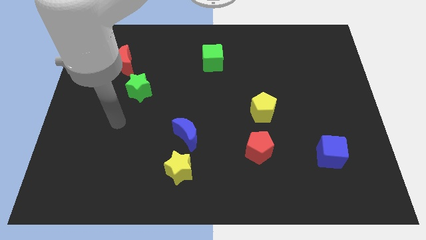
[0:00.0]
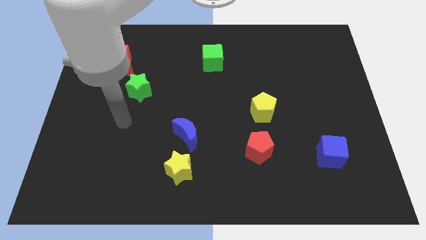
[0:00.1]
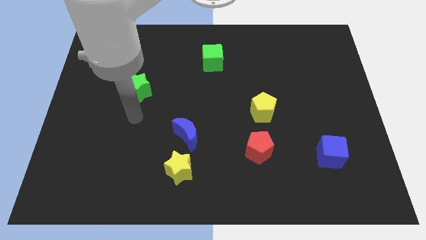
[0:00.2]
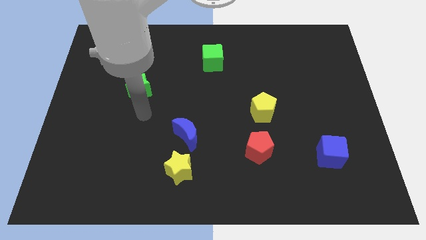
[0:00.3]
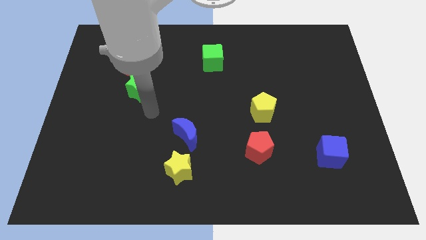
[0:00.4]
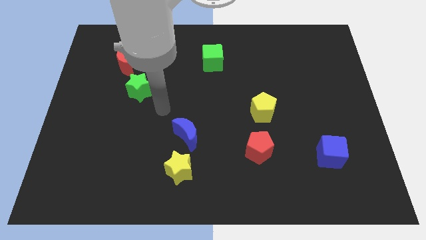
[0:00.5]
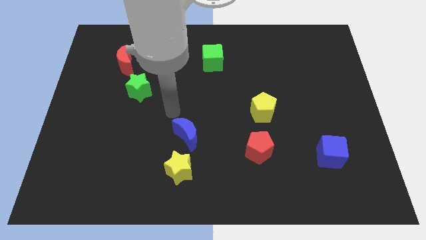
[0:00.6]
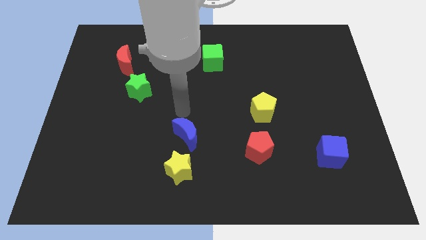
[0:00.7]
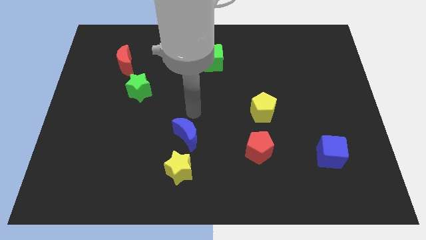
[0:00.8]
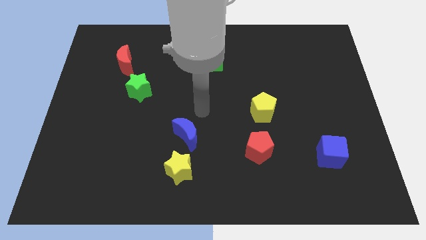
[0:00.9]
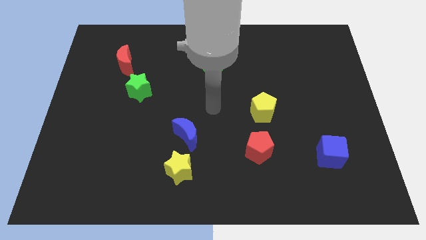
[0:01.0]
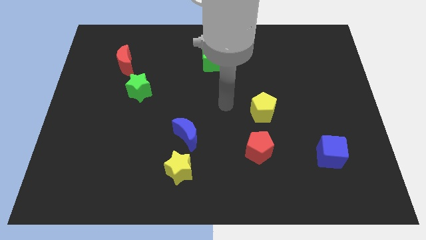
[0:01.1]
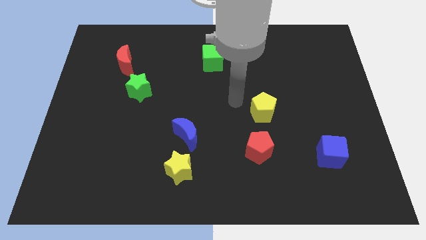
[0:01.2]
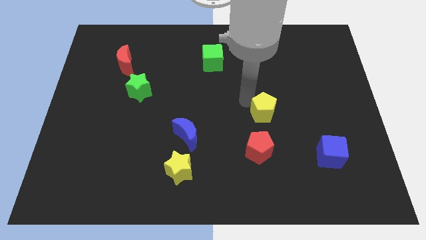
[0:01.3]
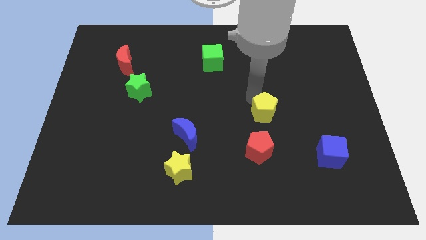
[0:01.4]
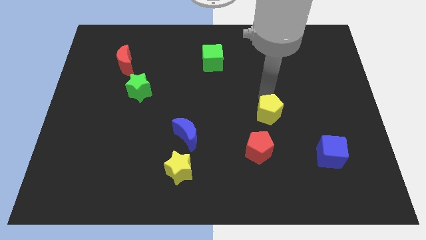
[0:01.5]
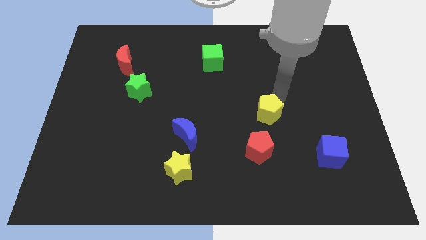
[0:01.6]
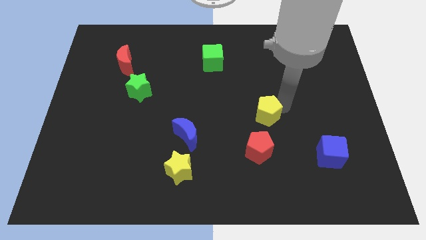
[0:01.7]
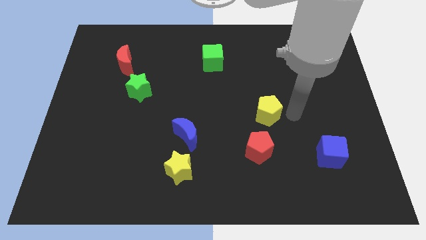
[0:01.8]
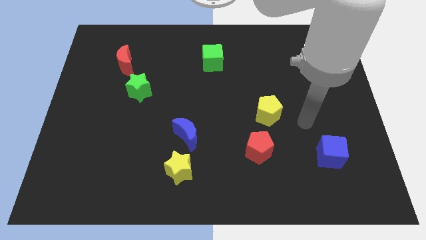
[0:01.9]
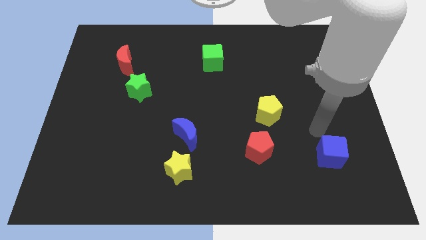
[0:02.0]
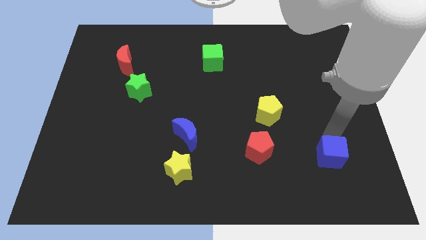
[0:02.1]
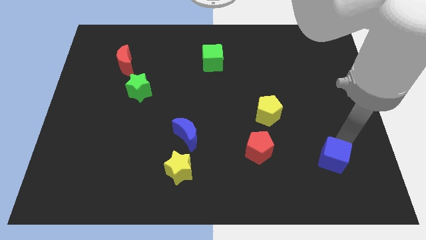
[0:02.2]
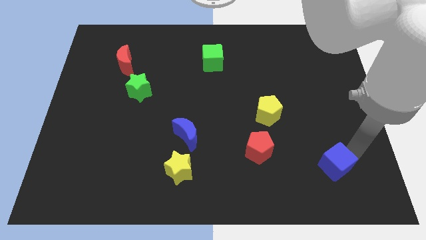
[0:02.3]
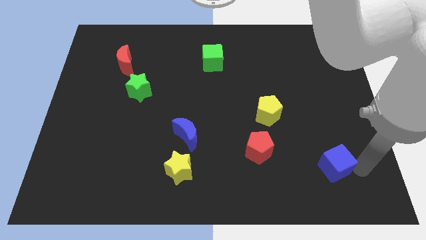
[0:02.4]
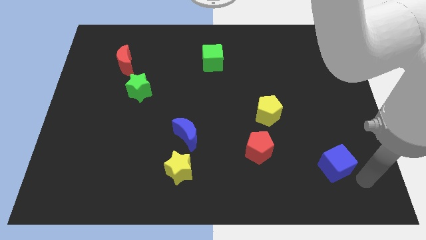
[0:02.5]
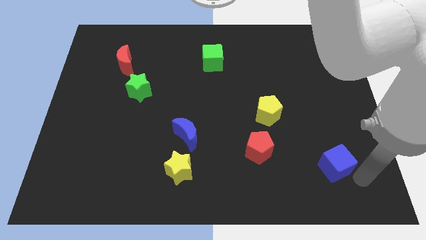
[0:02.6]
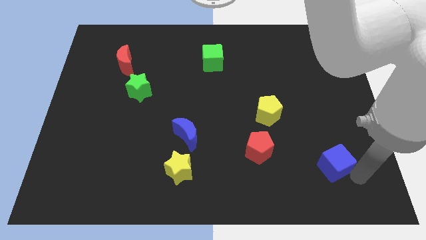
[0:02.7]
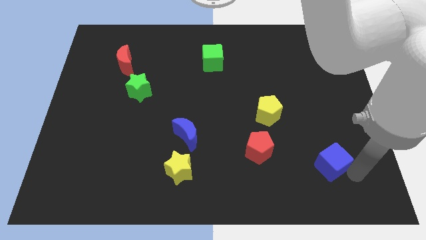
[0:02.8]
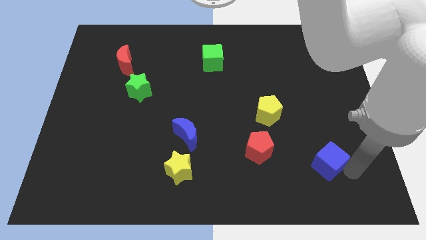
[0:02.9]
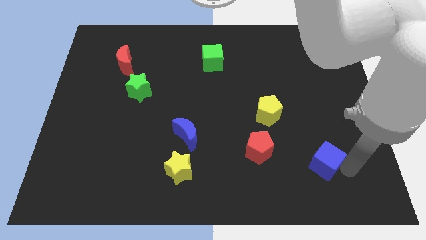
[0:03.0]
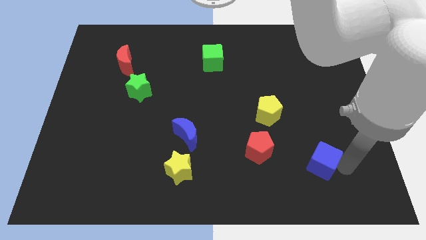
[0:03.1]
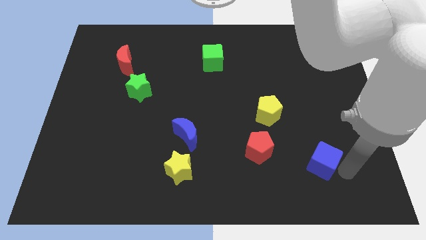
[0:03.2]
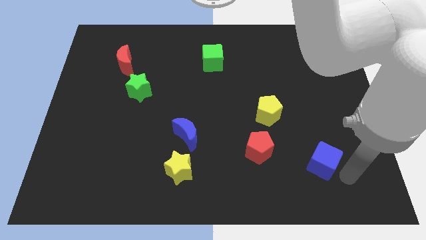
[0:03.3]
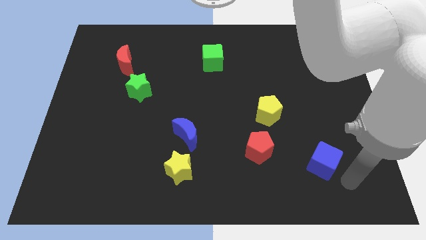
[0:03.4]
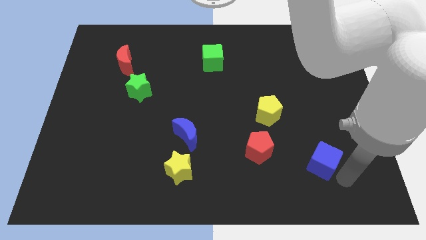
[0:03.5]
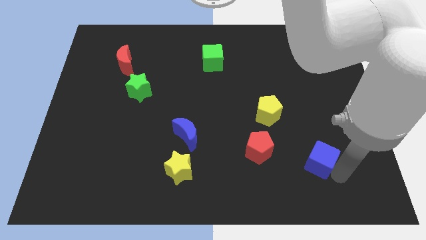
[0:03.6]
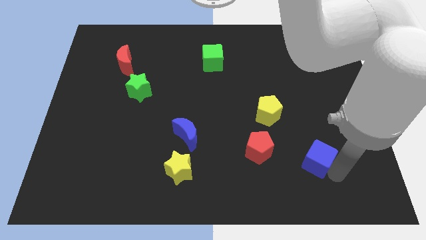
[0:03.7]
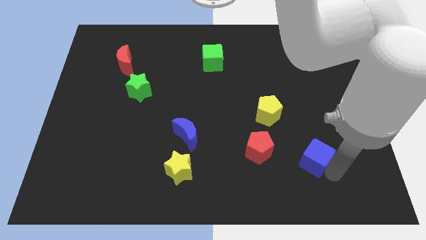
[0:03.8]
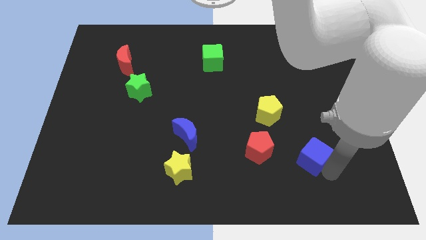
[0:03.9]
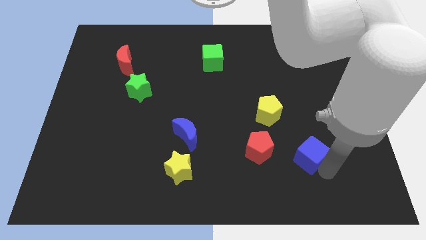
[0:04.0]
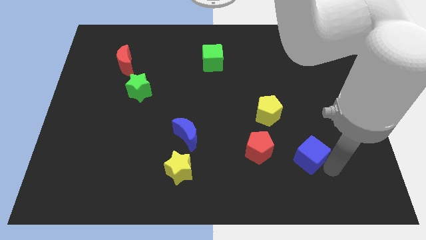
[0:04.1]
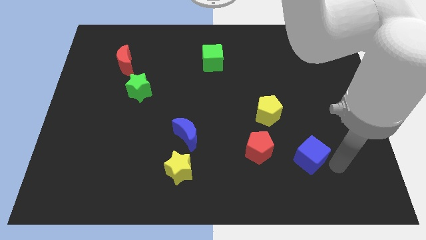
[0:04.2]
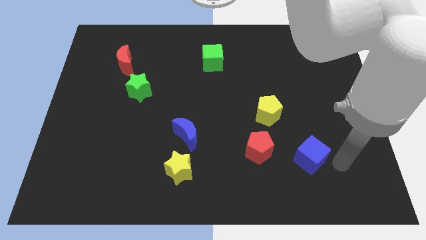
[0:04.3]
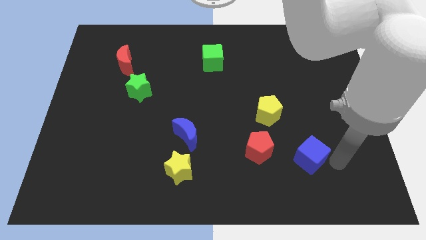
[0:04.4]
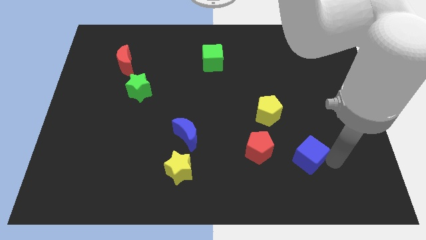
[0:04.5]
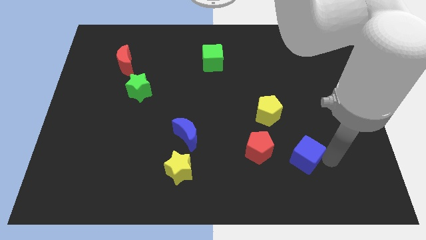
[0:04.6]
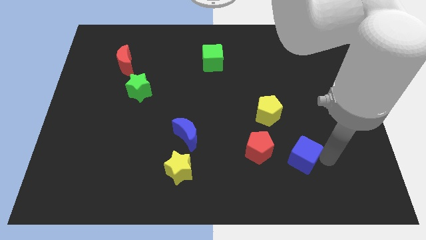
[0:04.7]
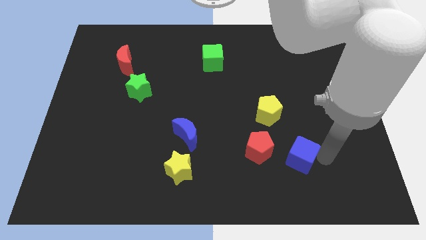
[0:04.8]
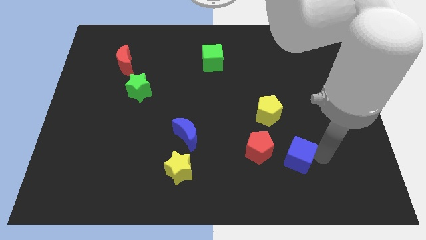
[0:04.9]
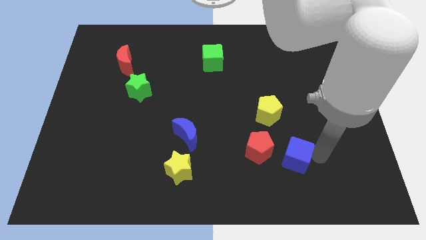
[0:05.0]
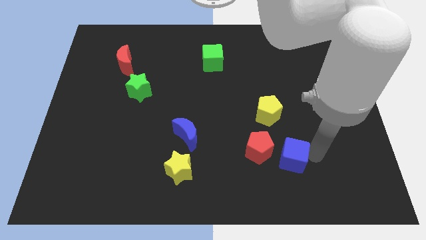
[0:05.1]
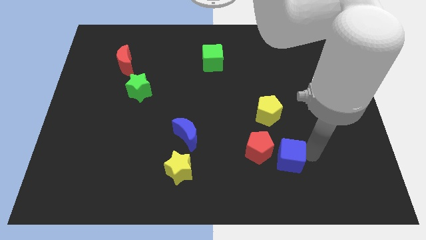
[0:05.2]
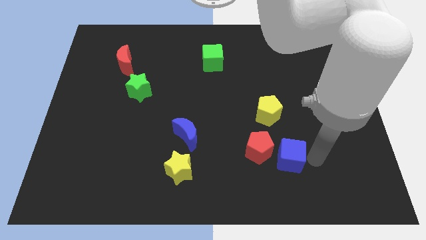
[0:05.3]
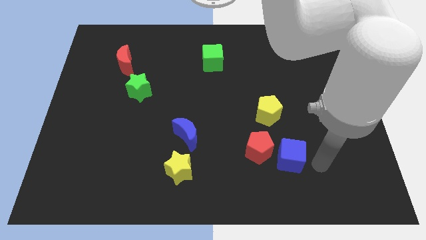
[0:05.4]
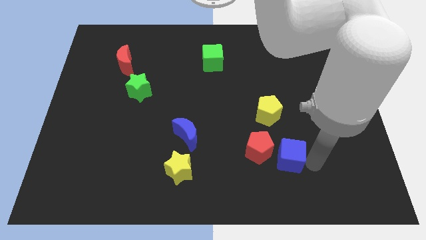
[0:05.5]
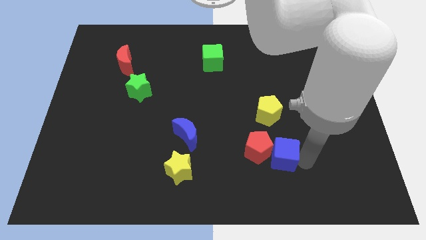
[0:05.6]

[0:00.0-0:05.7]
put the blue cube to the red pentagon

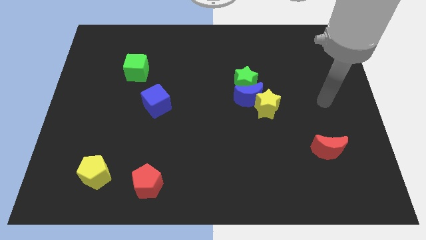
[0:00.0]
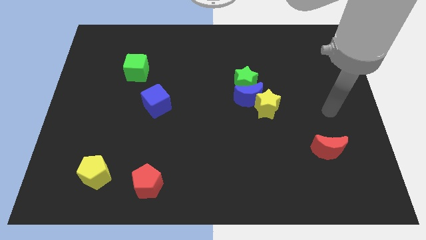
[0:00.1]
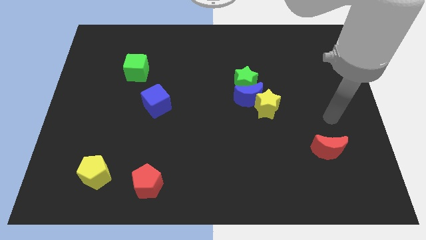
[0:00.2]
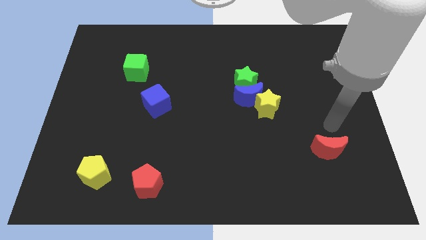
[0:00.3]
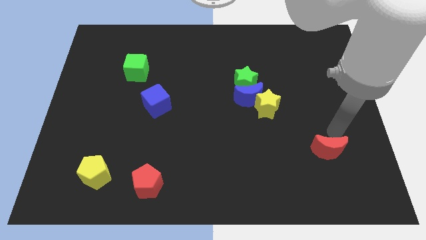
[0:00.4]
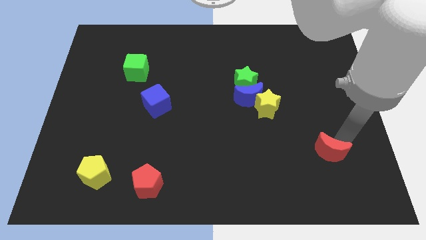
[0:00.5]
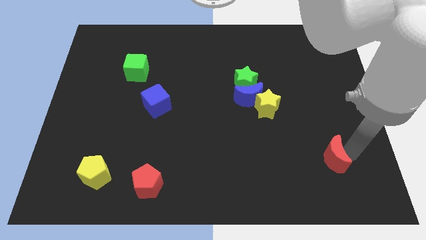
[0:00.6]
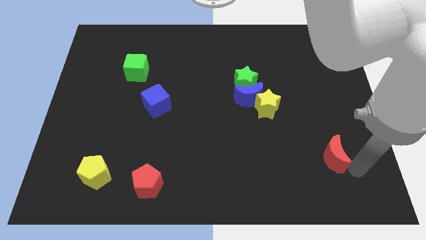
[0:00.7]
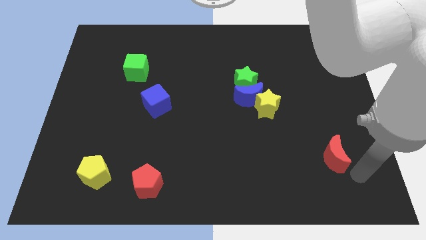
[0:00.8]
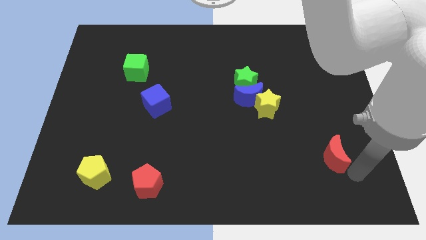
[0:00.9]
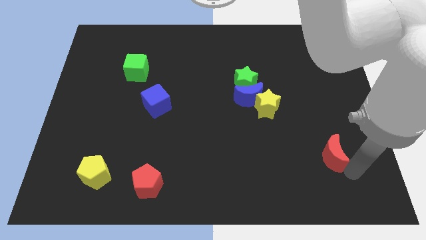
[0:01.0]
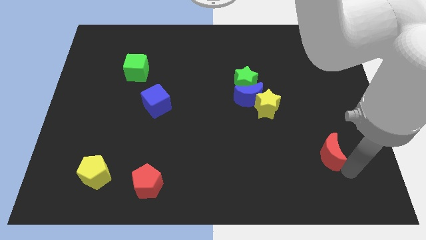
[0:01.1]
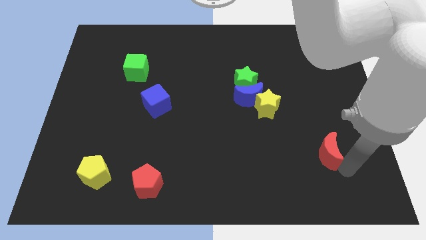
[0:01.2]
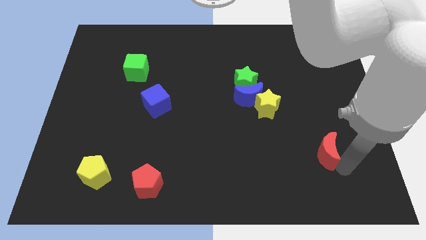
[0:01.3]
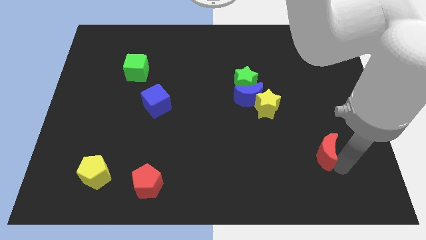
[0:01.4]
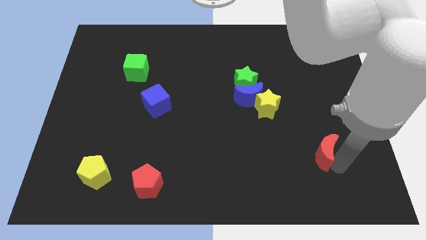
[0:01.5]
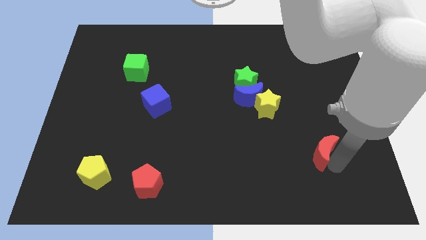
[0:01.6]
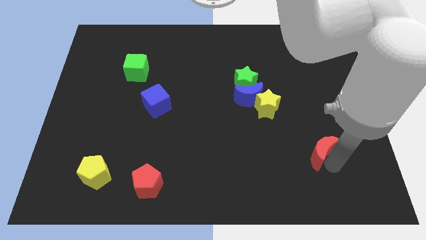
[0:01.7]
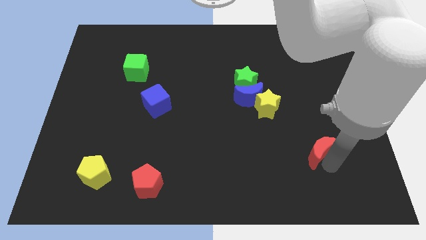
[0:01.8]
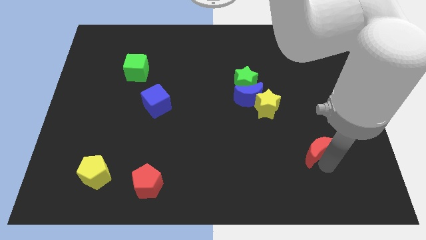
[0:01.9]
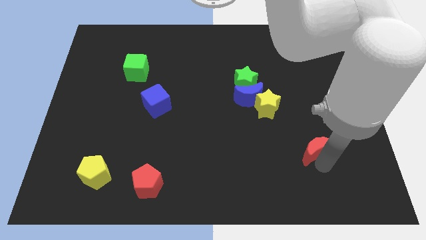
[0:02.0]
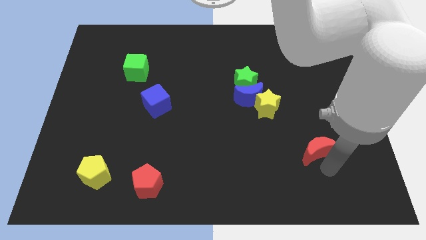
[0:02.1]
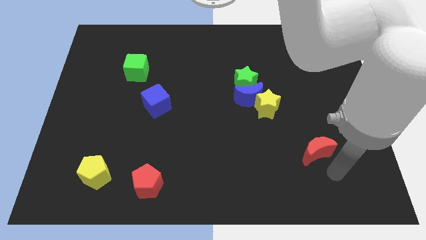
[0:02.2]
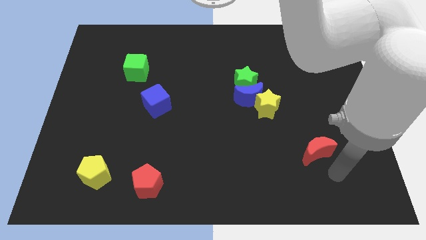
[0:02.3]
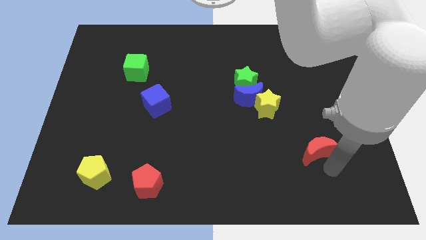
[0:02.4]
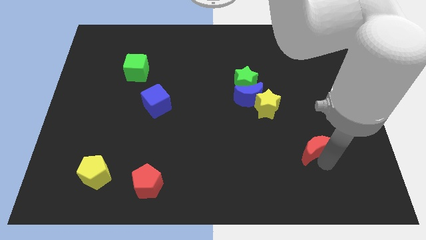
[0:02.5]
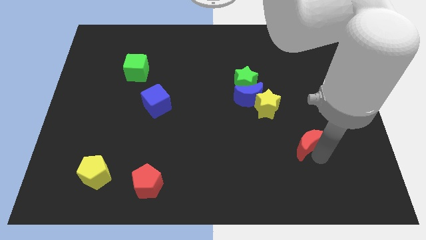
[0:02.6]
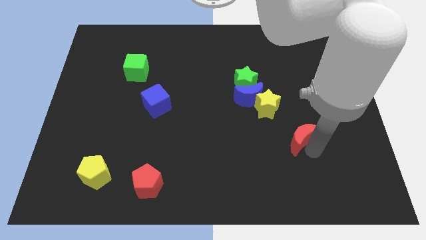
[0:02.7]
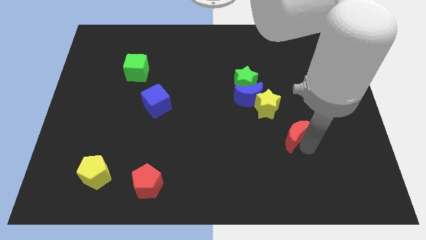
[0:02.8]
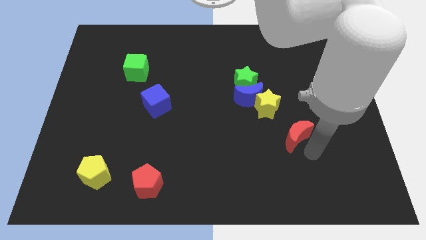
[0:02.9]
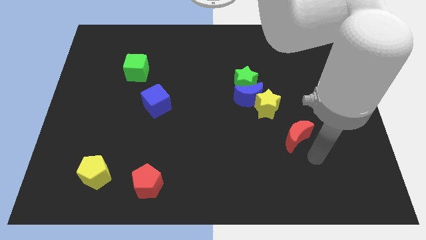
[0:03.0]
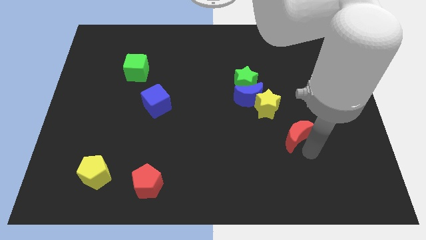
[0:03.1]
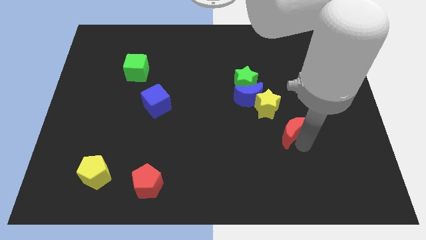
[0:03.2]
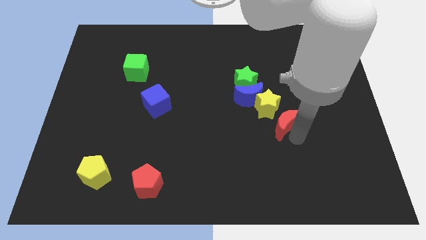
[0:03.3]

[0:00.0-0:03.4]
slide the red moon to the yellow star
